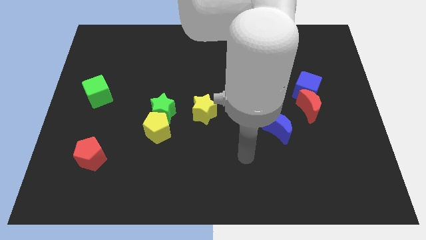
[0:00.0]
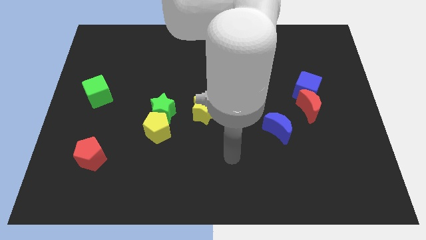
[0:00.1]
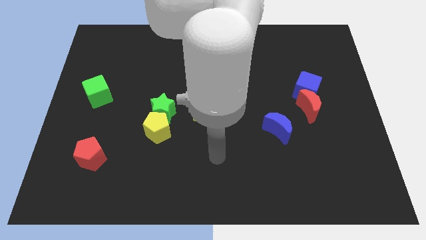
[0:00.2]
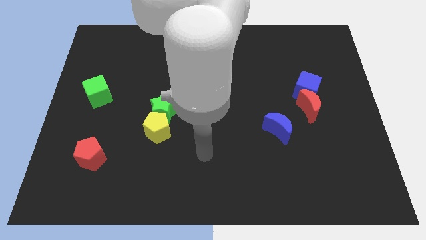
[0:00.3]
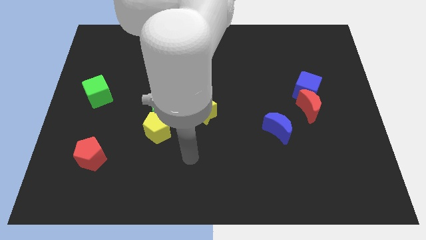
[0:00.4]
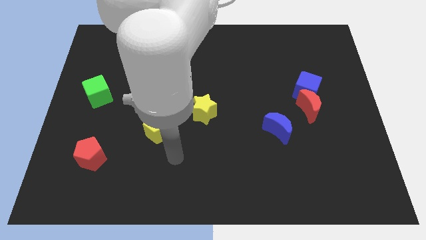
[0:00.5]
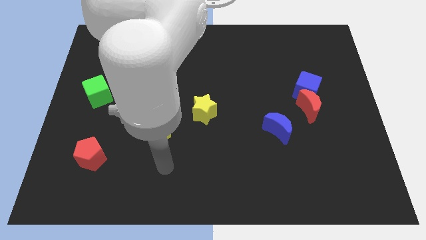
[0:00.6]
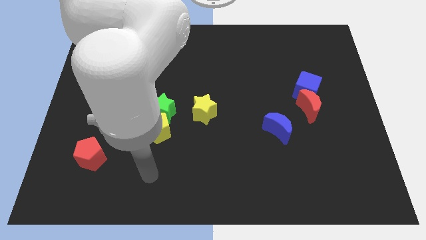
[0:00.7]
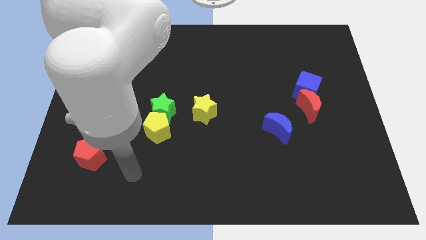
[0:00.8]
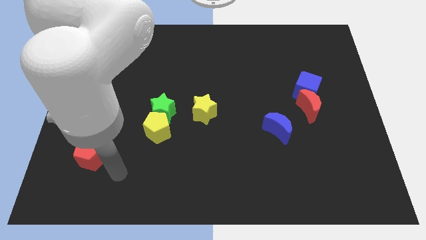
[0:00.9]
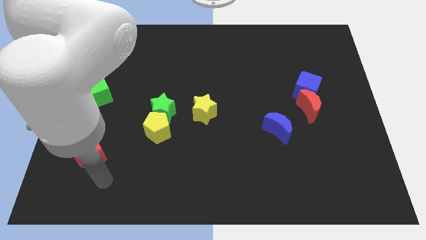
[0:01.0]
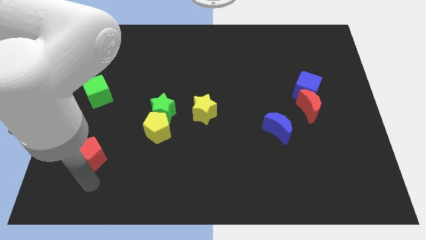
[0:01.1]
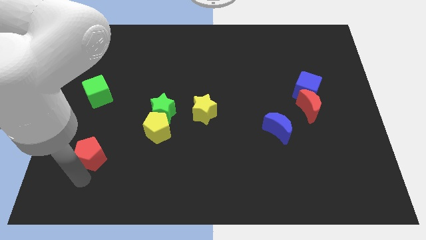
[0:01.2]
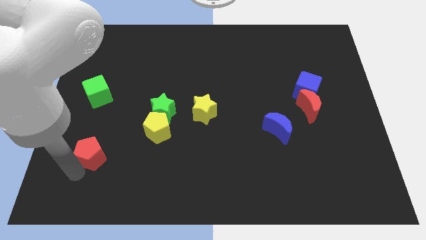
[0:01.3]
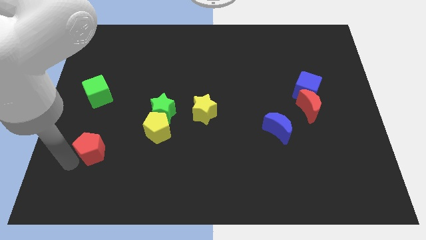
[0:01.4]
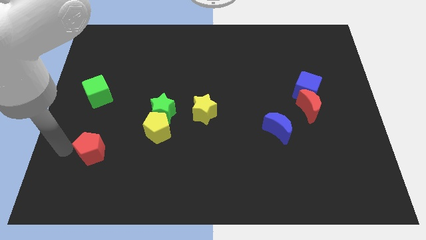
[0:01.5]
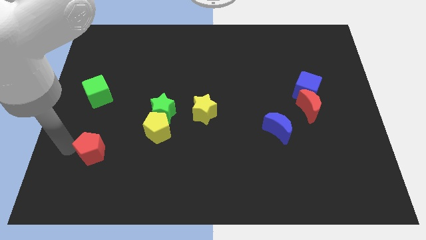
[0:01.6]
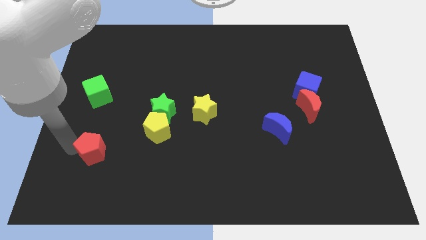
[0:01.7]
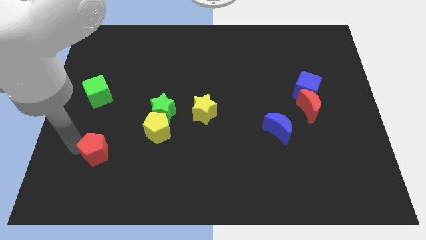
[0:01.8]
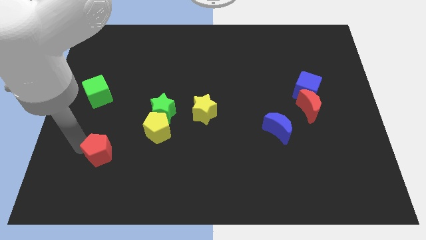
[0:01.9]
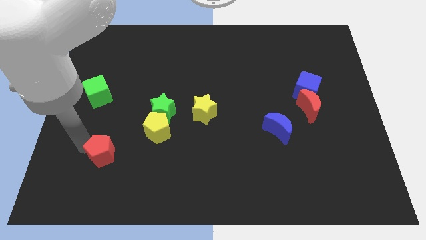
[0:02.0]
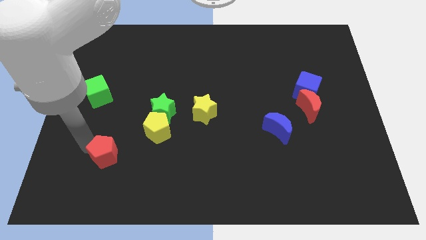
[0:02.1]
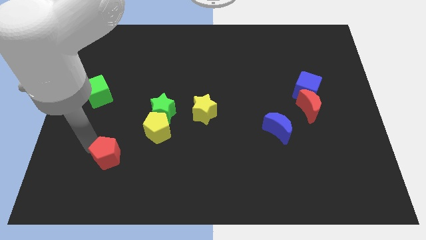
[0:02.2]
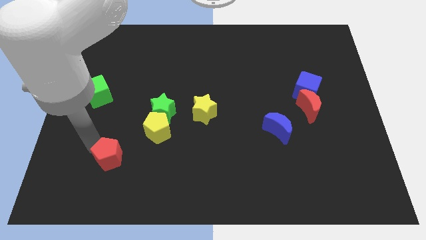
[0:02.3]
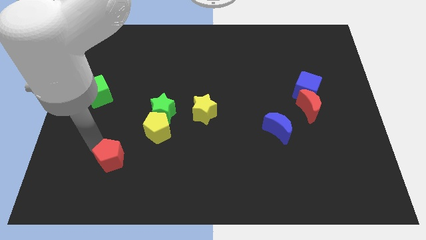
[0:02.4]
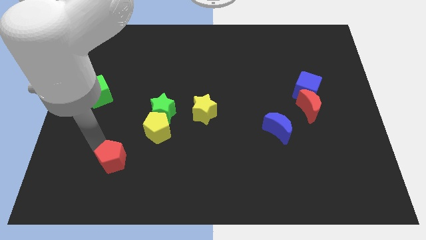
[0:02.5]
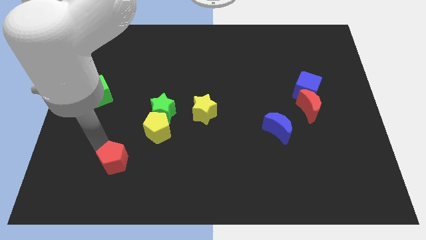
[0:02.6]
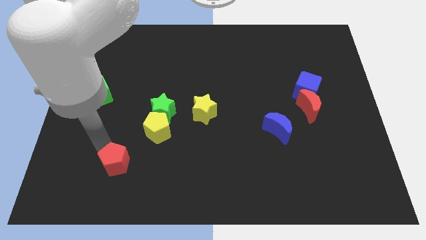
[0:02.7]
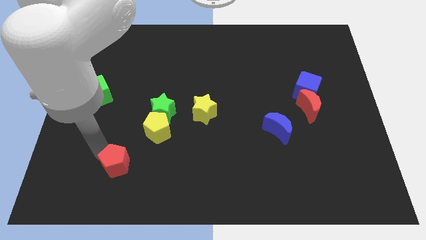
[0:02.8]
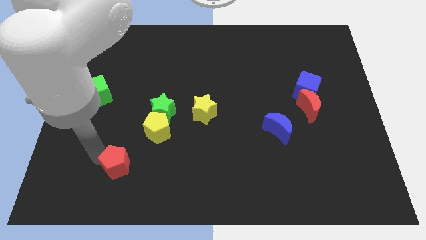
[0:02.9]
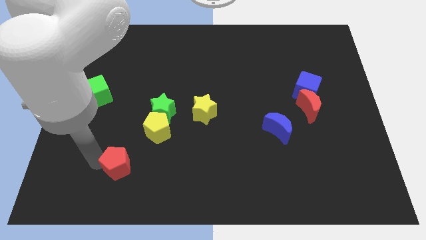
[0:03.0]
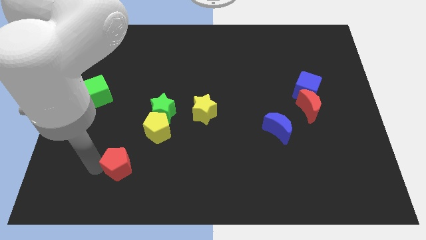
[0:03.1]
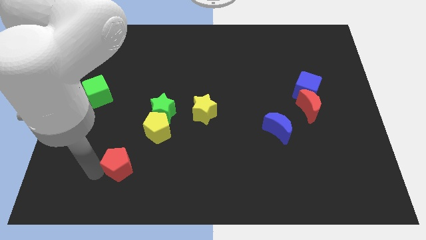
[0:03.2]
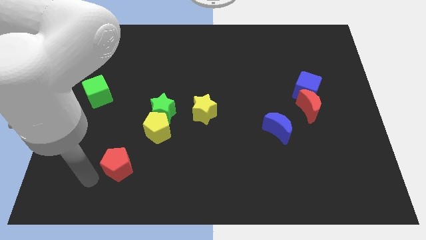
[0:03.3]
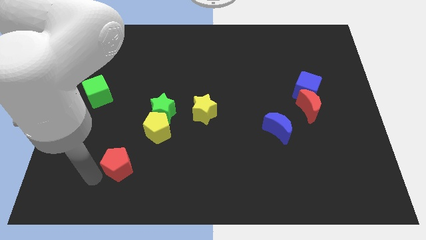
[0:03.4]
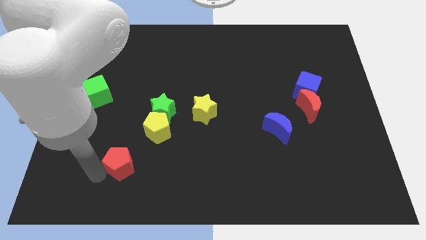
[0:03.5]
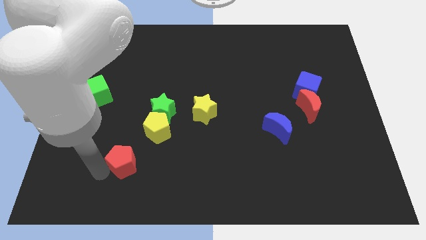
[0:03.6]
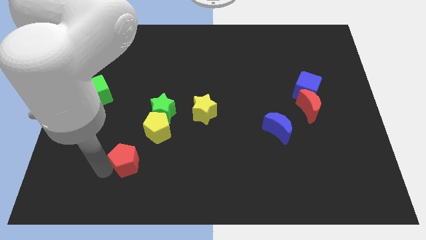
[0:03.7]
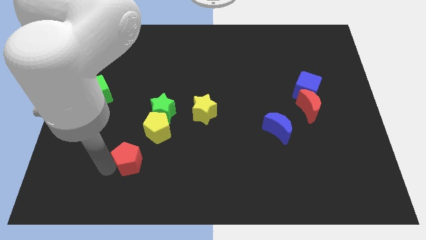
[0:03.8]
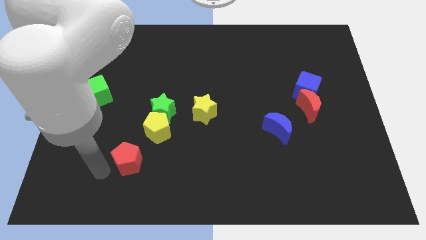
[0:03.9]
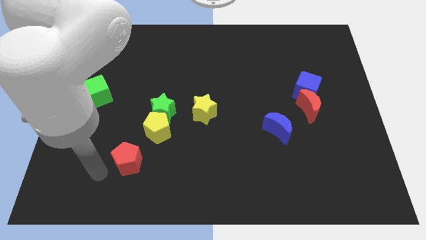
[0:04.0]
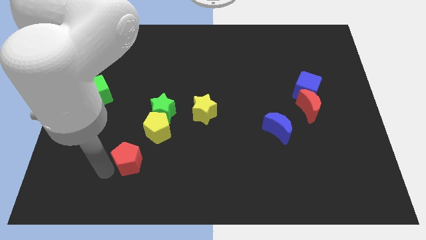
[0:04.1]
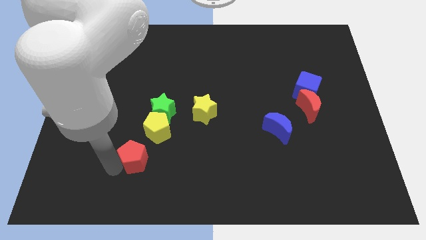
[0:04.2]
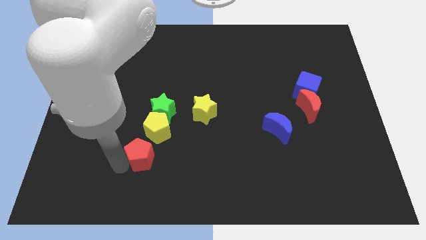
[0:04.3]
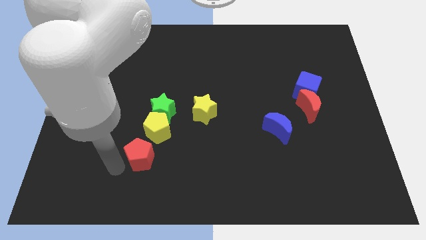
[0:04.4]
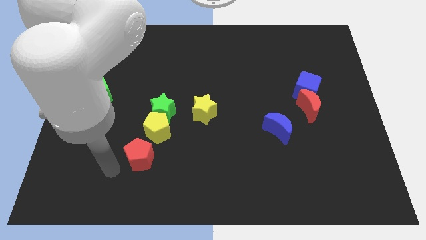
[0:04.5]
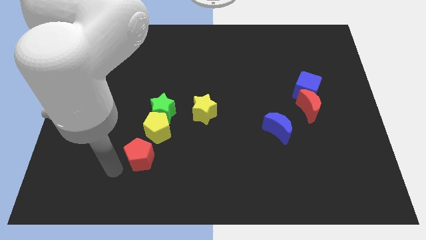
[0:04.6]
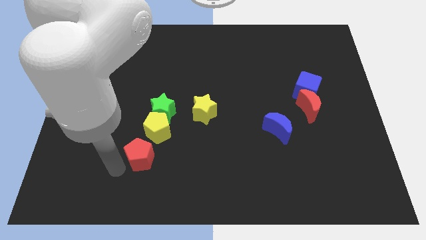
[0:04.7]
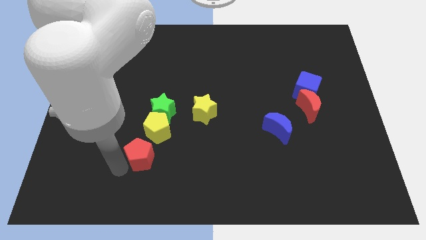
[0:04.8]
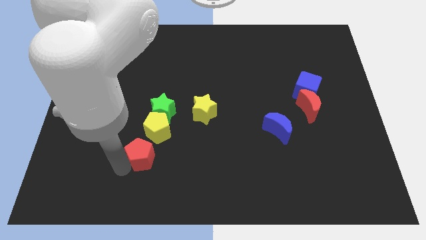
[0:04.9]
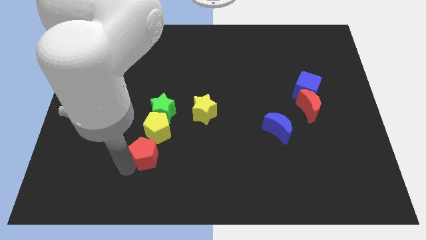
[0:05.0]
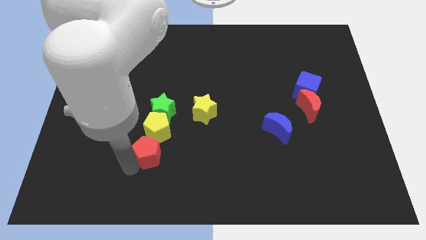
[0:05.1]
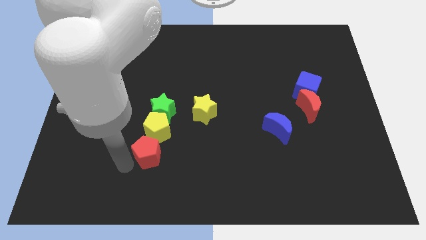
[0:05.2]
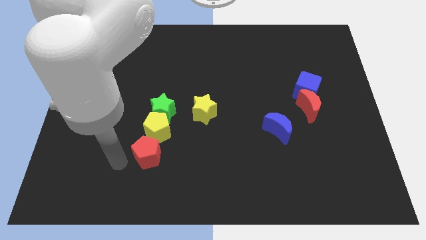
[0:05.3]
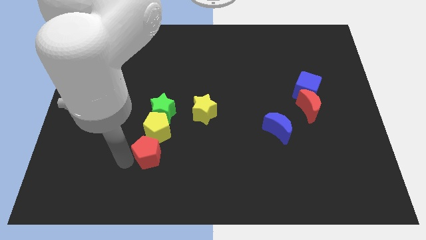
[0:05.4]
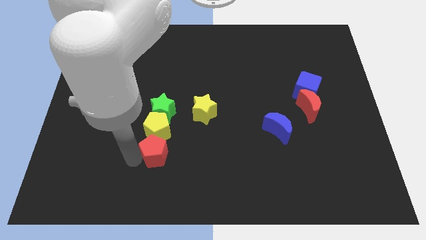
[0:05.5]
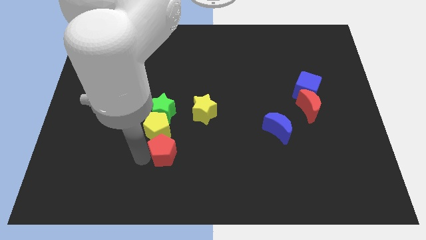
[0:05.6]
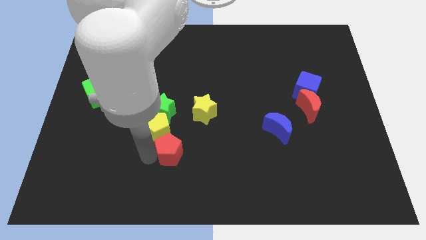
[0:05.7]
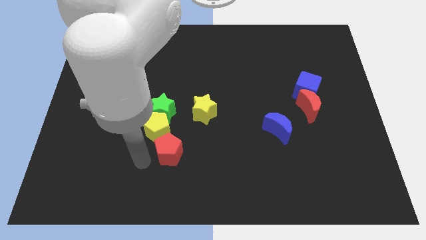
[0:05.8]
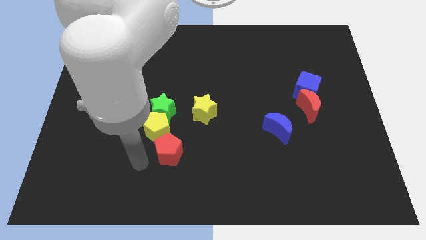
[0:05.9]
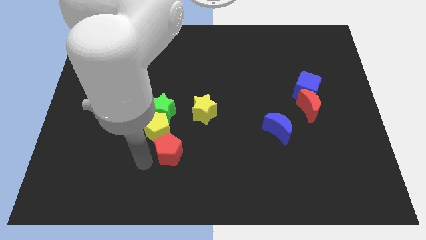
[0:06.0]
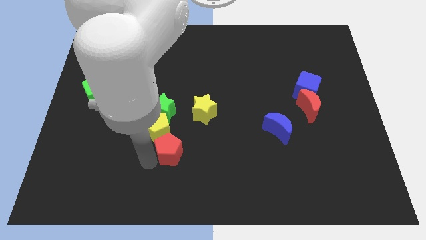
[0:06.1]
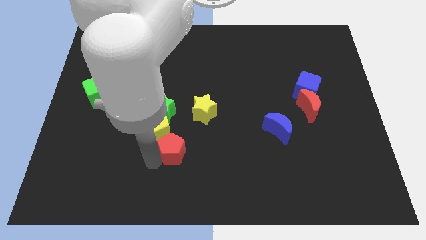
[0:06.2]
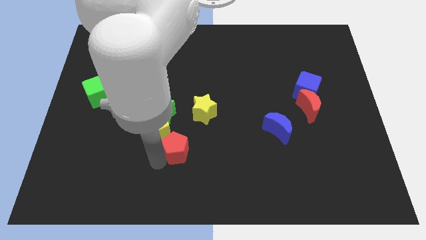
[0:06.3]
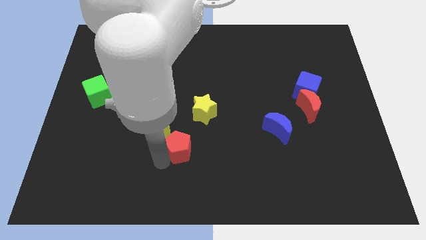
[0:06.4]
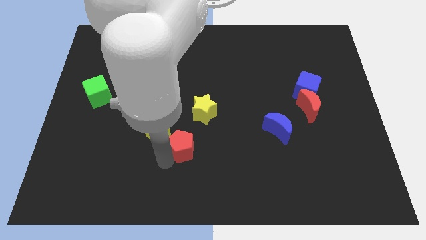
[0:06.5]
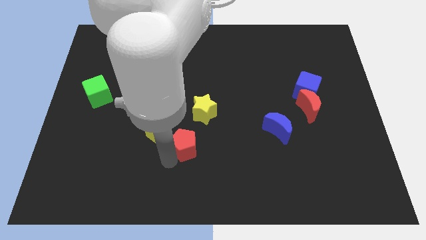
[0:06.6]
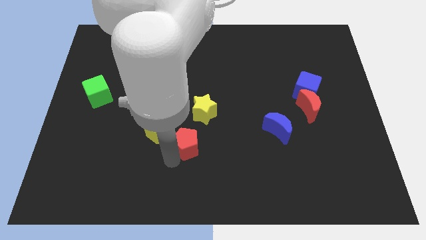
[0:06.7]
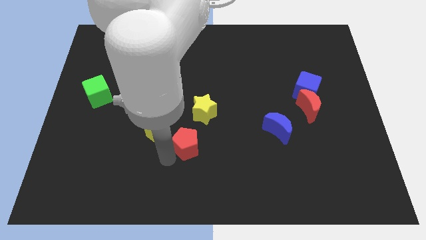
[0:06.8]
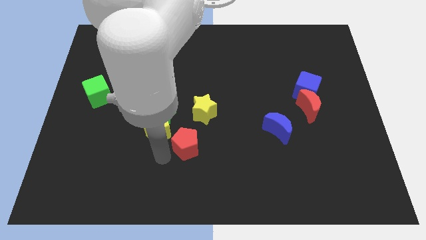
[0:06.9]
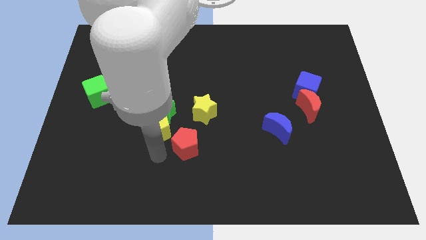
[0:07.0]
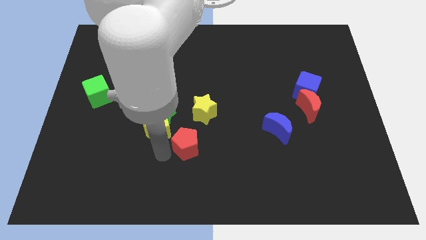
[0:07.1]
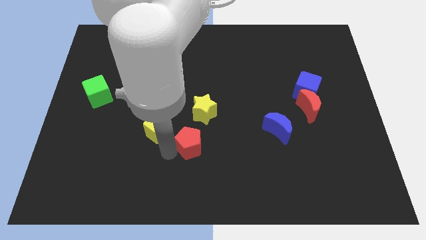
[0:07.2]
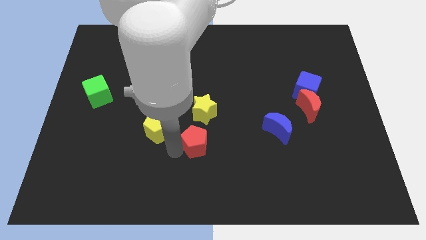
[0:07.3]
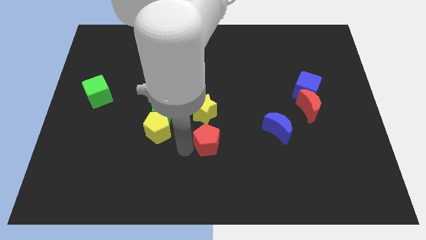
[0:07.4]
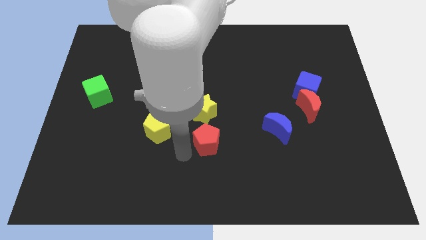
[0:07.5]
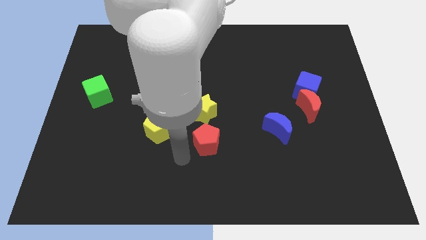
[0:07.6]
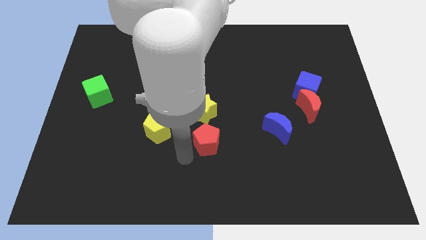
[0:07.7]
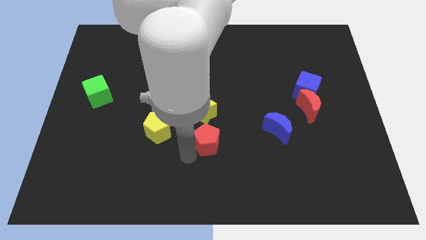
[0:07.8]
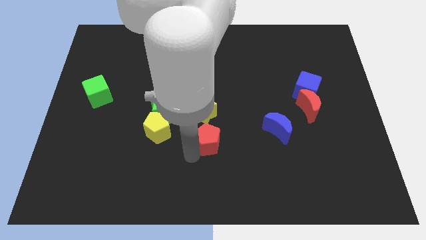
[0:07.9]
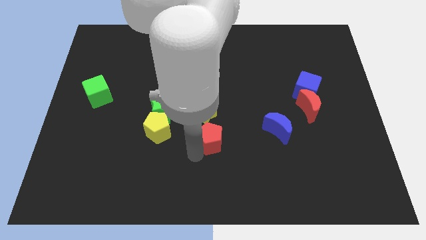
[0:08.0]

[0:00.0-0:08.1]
move the red pentagon to the left of the blue moon
